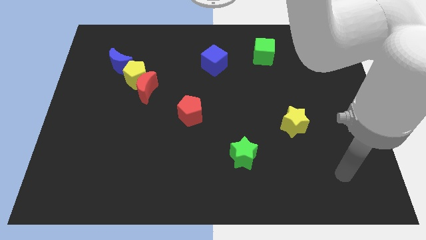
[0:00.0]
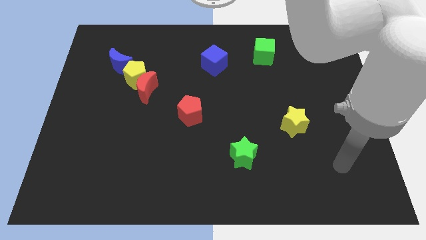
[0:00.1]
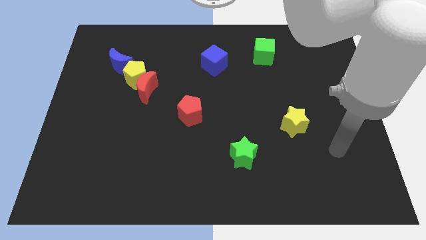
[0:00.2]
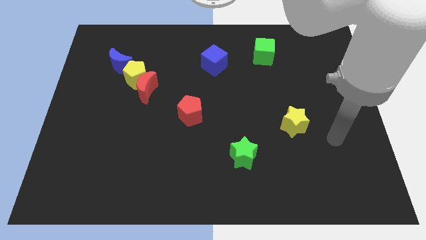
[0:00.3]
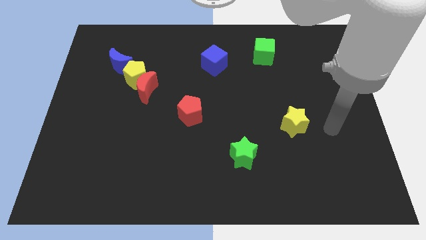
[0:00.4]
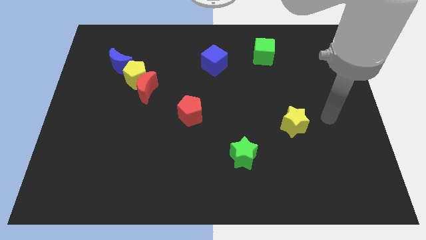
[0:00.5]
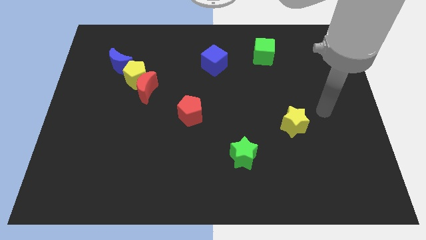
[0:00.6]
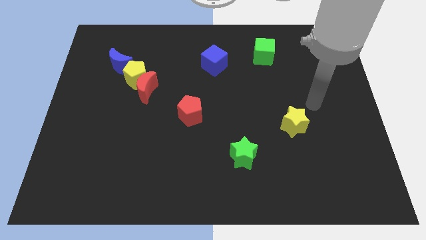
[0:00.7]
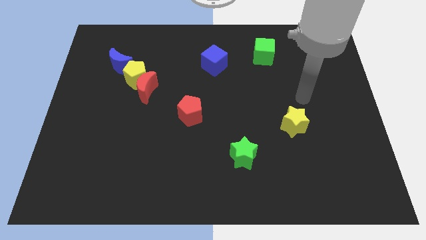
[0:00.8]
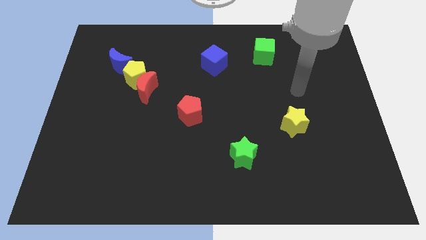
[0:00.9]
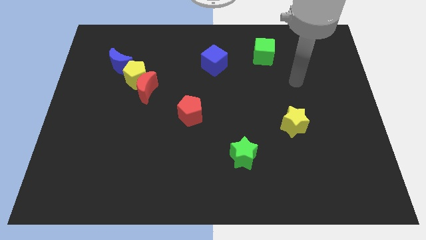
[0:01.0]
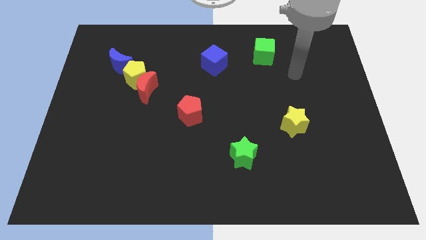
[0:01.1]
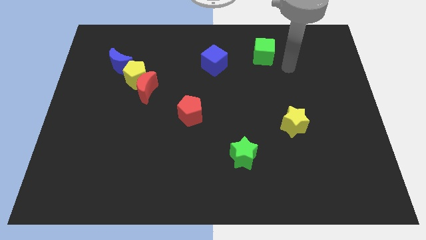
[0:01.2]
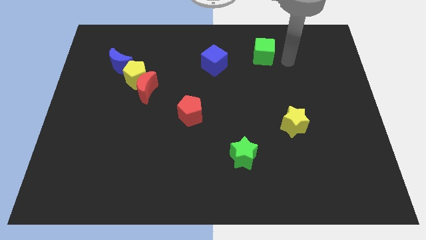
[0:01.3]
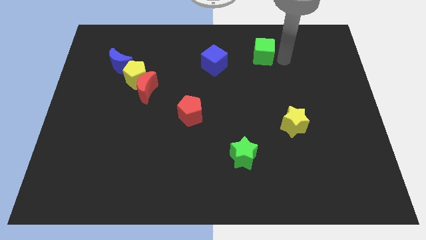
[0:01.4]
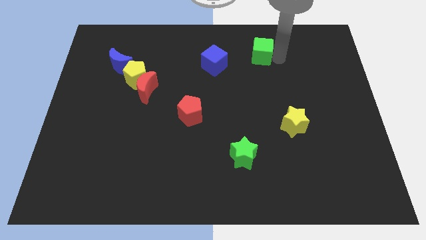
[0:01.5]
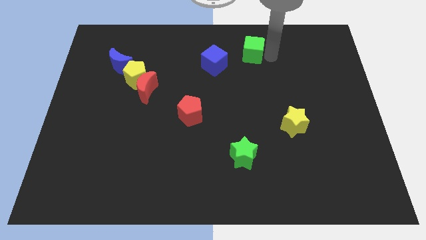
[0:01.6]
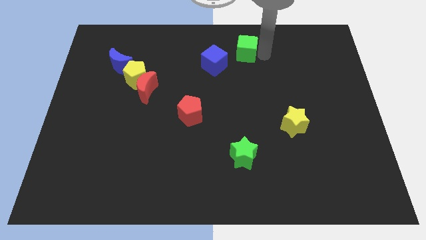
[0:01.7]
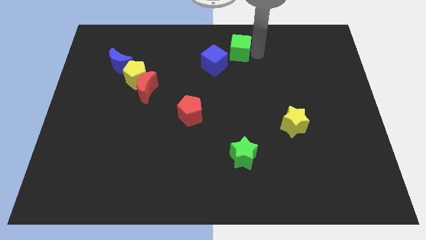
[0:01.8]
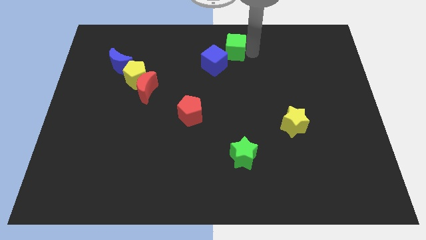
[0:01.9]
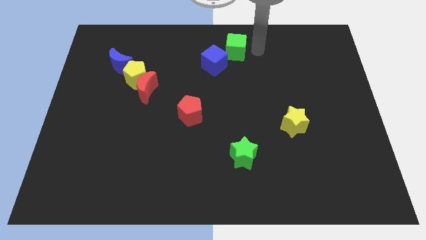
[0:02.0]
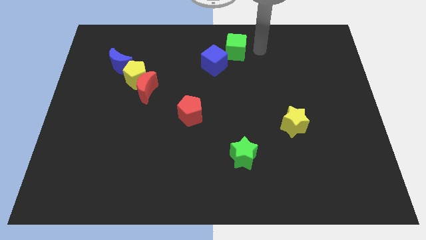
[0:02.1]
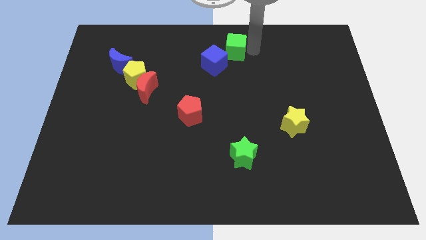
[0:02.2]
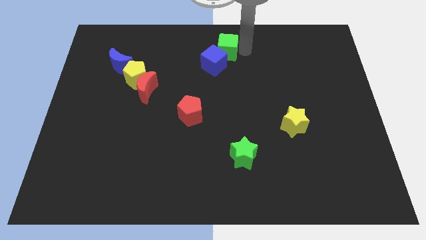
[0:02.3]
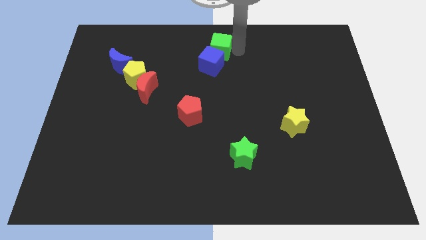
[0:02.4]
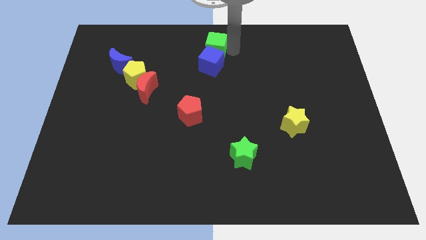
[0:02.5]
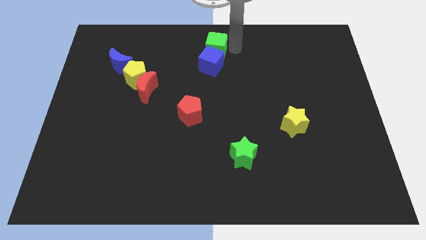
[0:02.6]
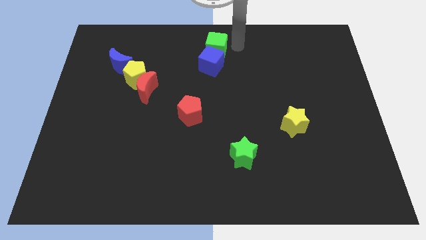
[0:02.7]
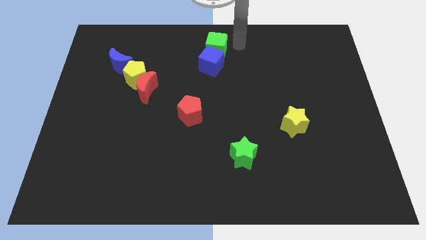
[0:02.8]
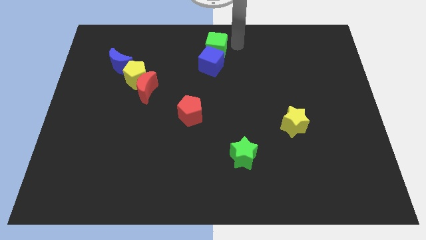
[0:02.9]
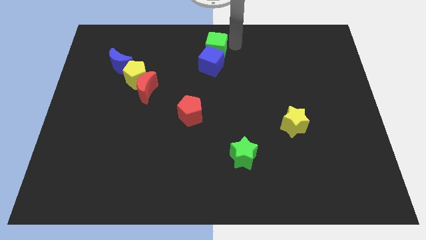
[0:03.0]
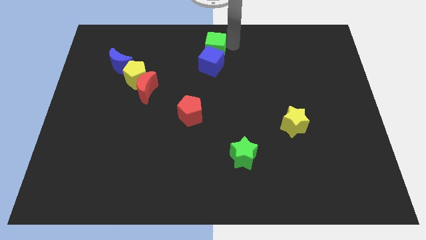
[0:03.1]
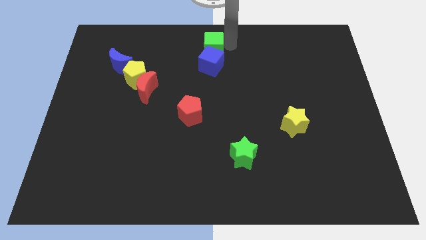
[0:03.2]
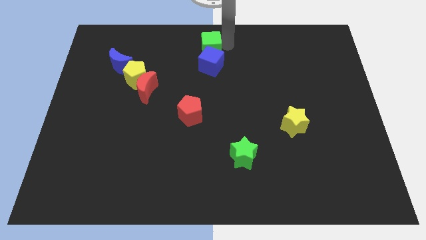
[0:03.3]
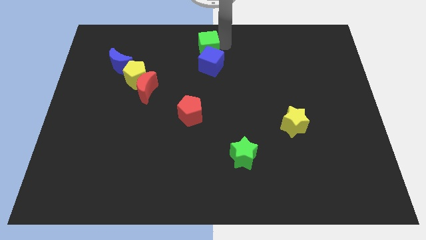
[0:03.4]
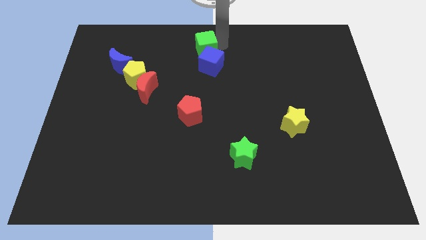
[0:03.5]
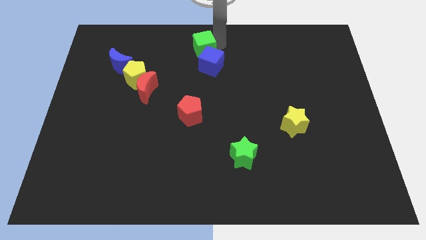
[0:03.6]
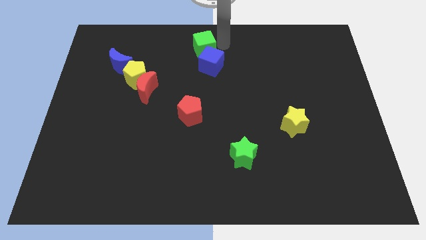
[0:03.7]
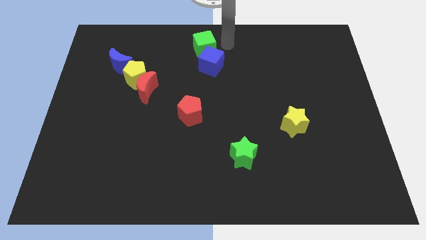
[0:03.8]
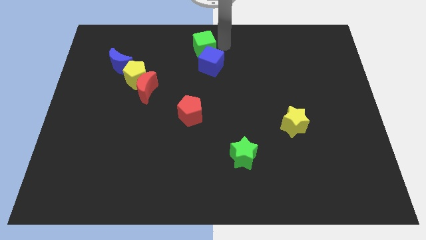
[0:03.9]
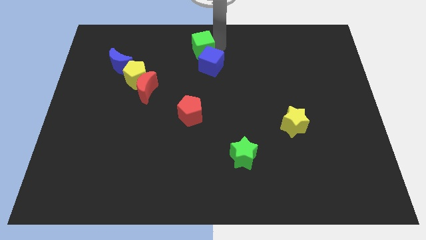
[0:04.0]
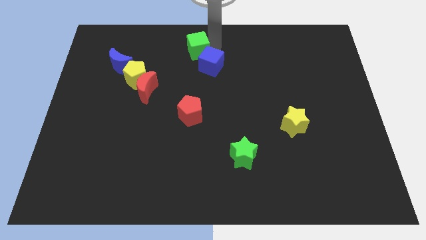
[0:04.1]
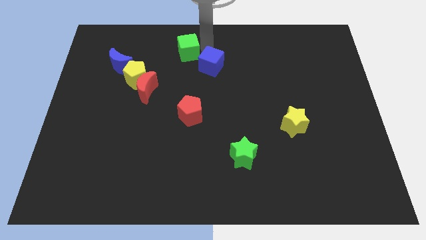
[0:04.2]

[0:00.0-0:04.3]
push the green cube to the left

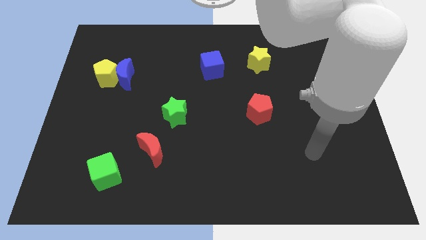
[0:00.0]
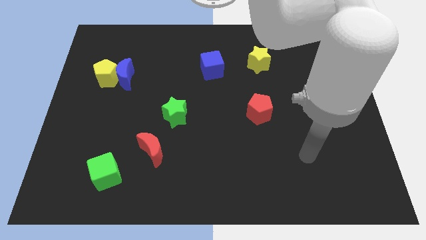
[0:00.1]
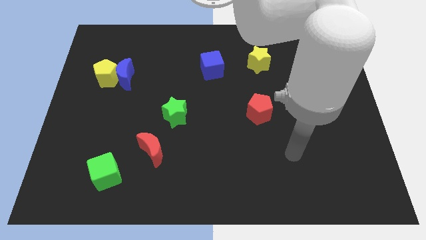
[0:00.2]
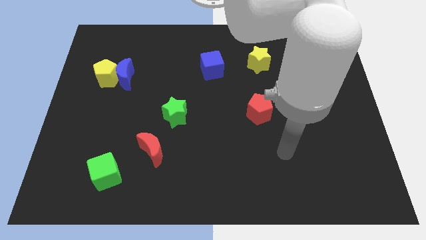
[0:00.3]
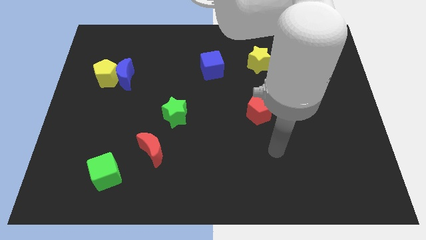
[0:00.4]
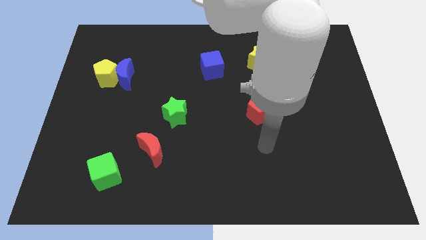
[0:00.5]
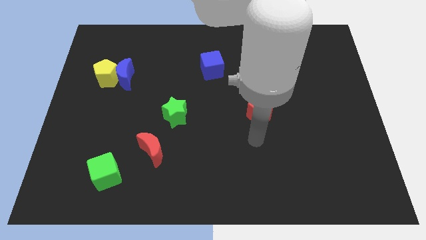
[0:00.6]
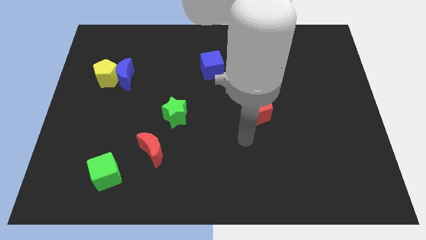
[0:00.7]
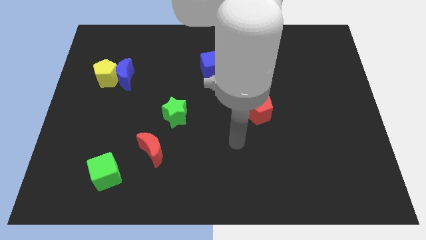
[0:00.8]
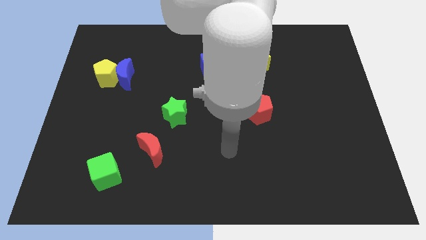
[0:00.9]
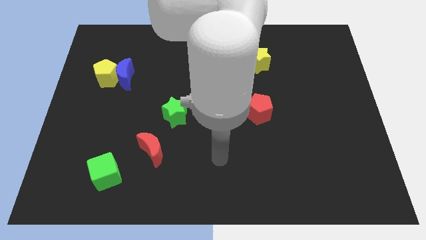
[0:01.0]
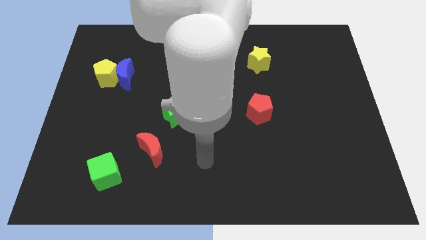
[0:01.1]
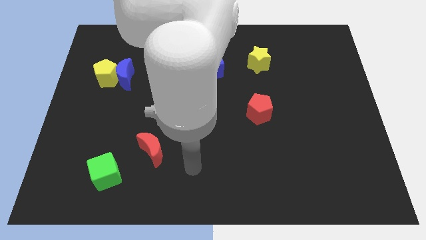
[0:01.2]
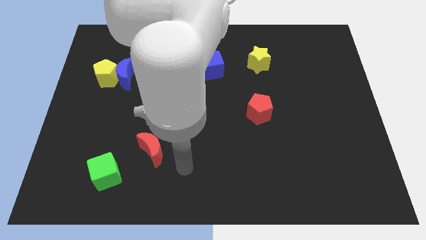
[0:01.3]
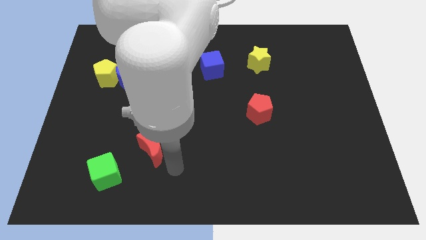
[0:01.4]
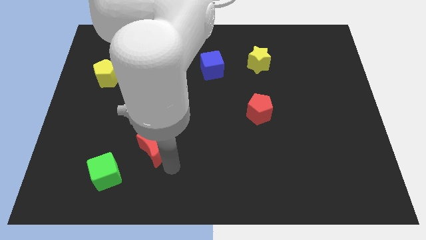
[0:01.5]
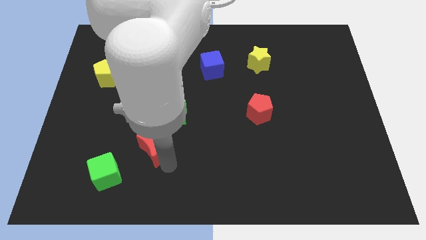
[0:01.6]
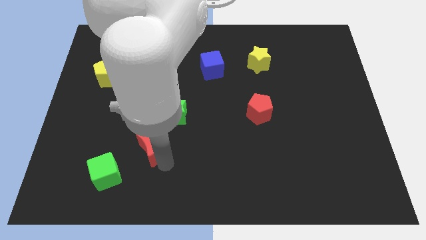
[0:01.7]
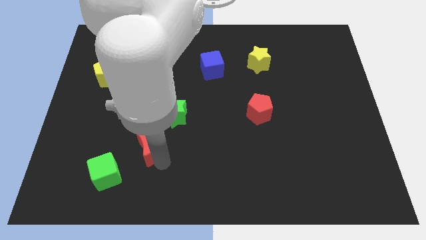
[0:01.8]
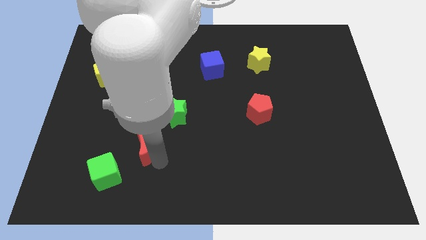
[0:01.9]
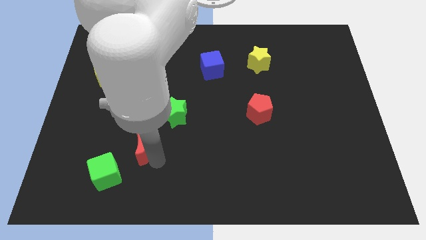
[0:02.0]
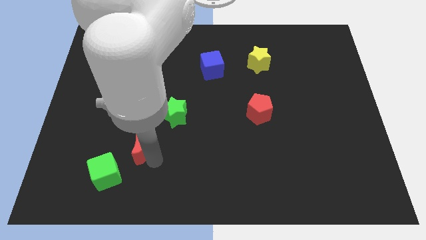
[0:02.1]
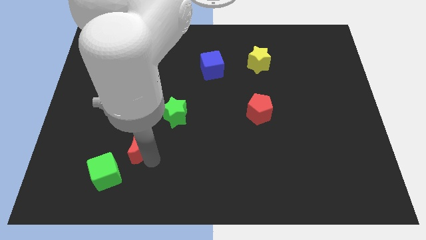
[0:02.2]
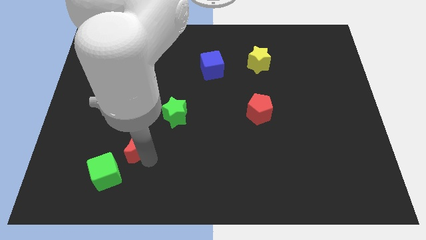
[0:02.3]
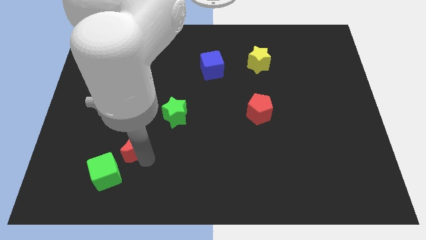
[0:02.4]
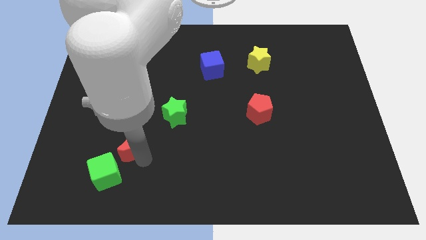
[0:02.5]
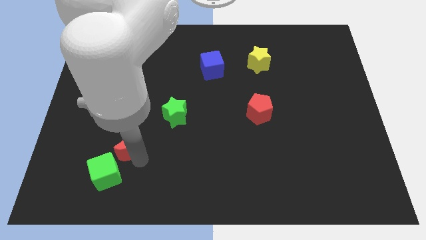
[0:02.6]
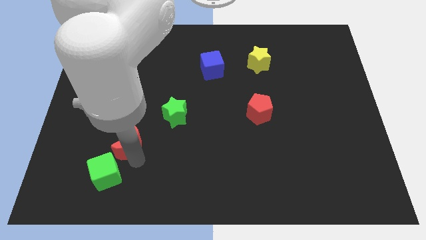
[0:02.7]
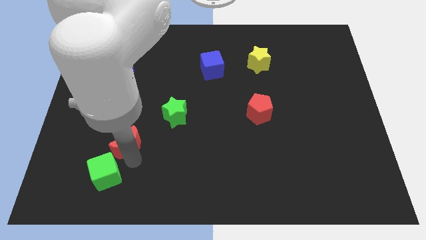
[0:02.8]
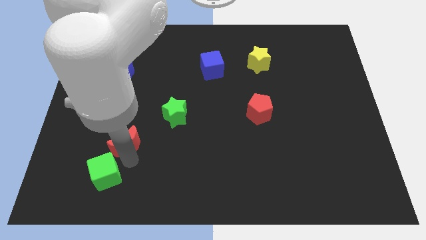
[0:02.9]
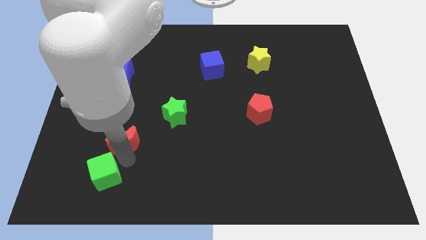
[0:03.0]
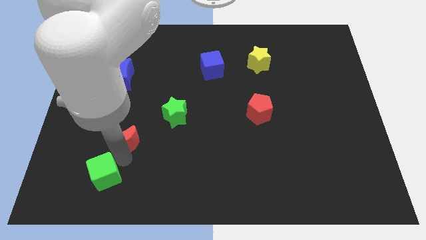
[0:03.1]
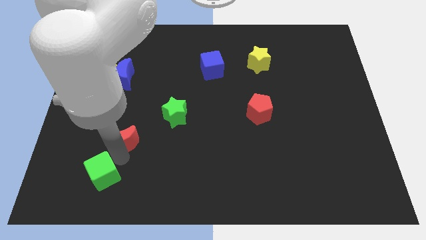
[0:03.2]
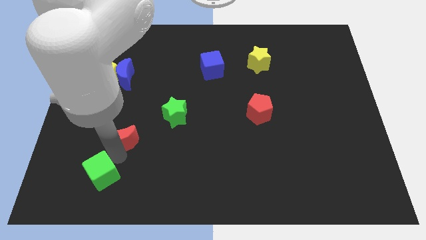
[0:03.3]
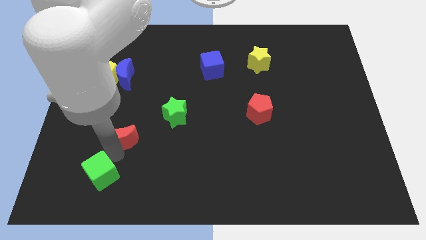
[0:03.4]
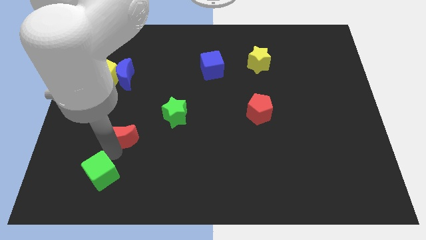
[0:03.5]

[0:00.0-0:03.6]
slide the red moon up and left somewhat
